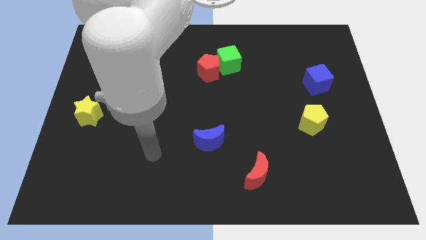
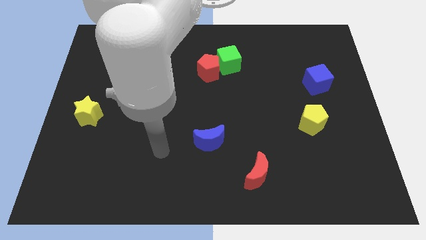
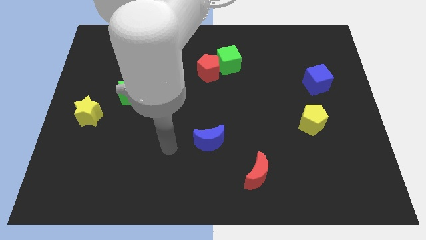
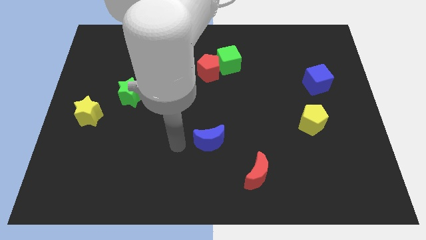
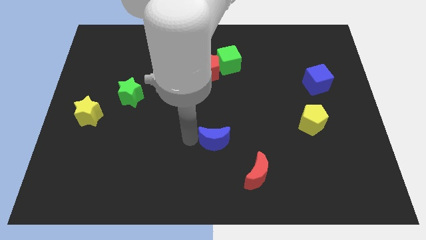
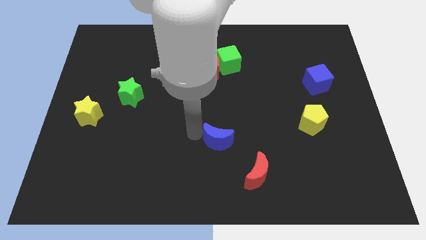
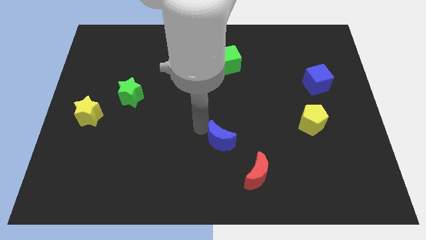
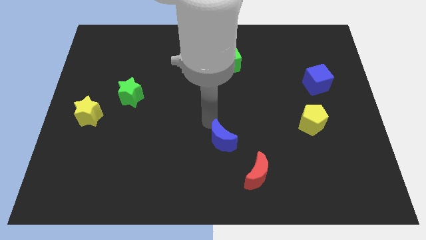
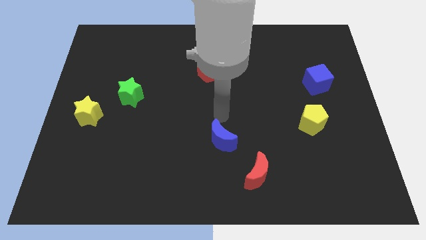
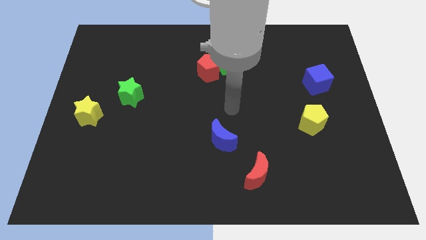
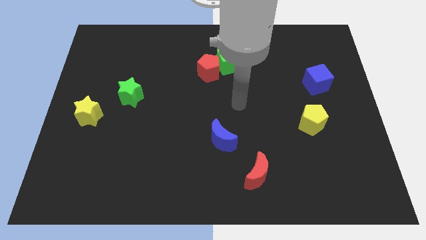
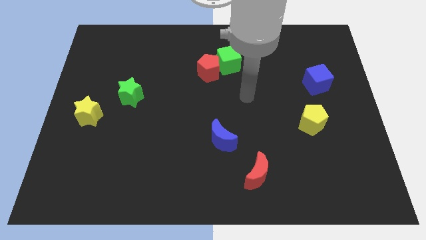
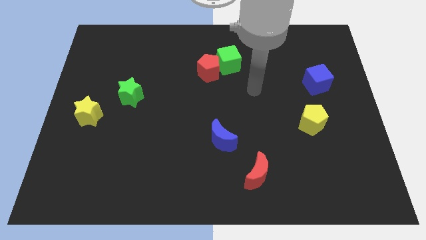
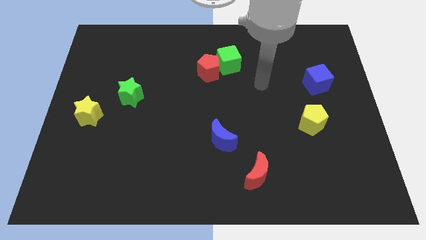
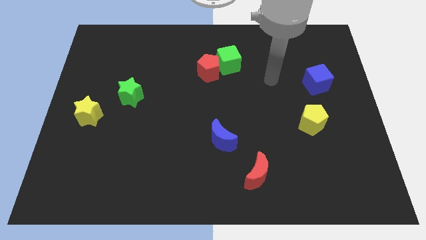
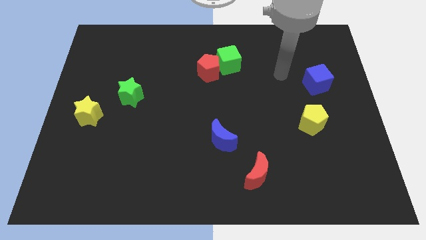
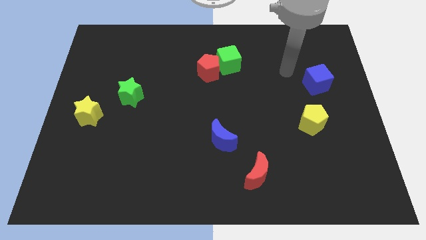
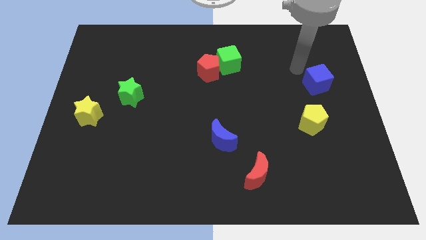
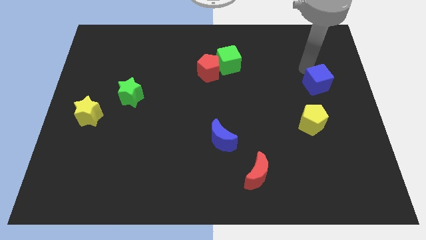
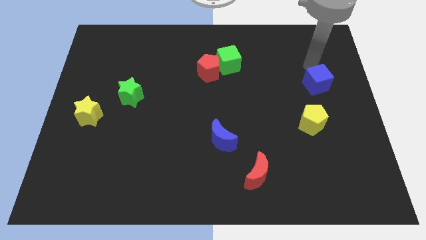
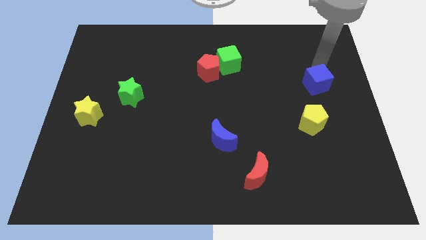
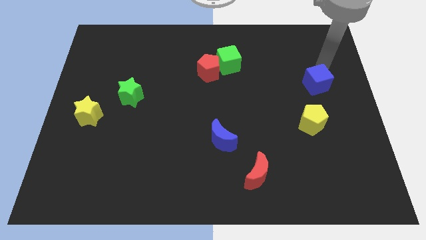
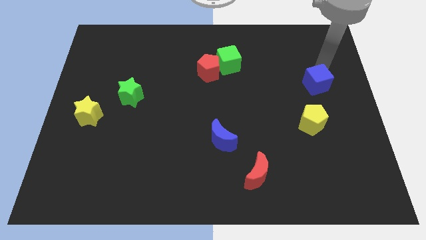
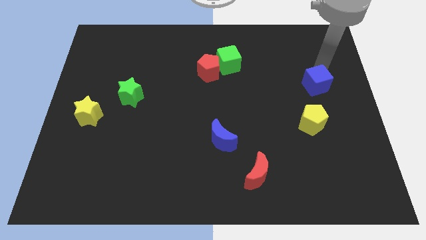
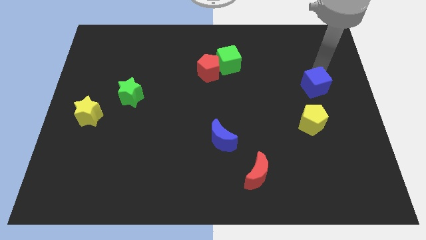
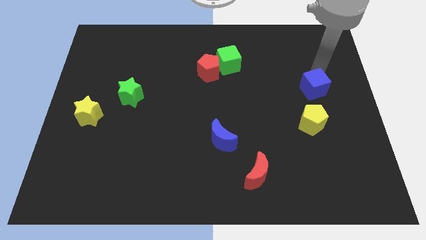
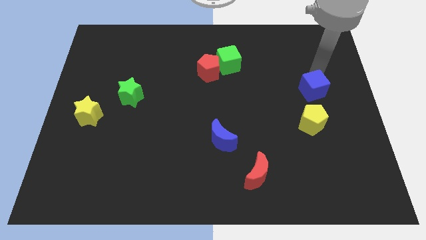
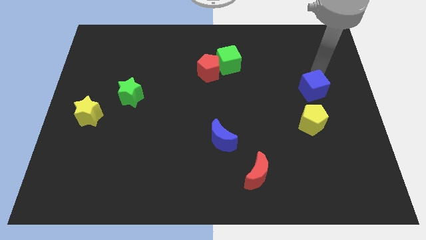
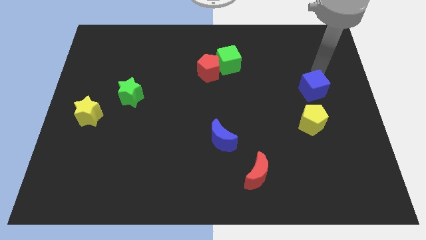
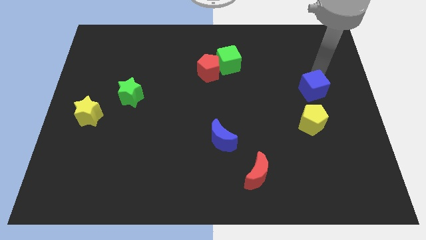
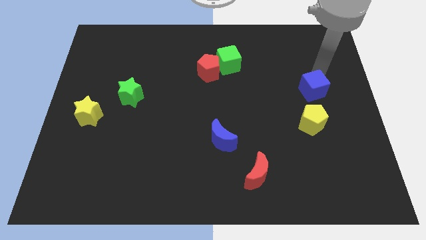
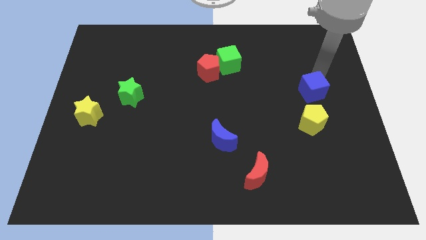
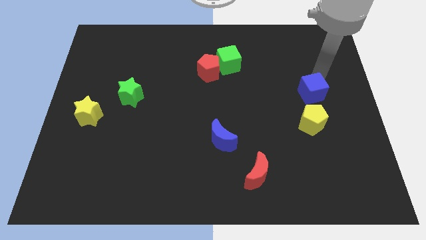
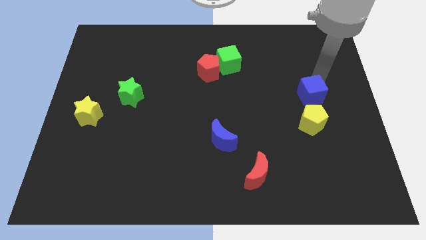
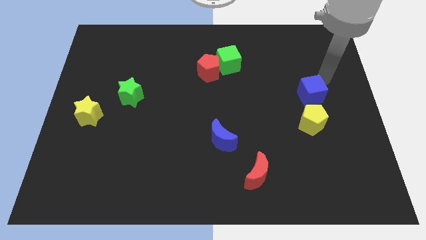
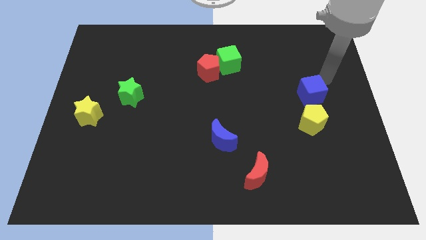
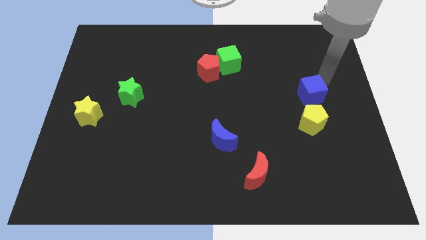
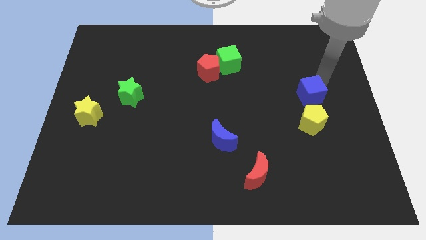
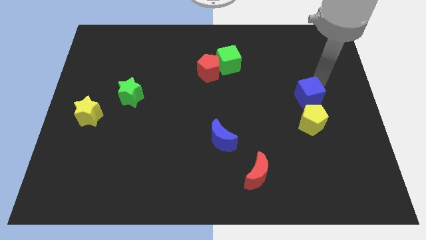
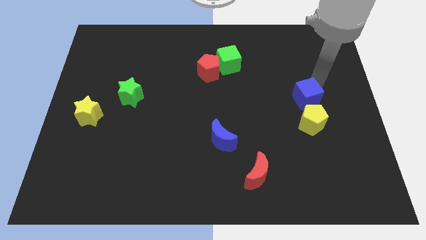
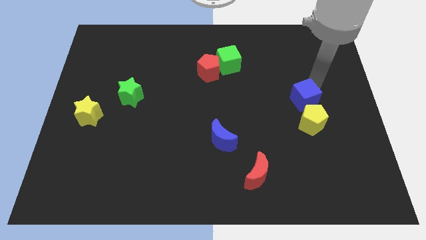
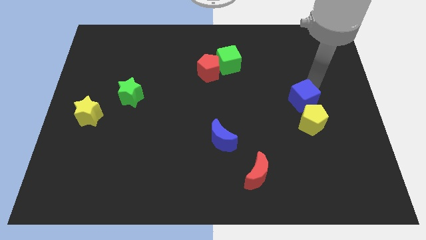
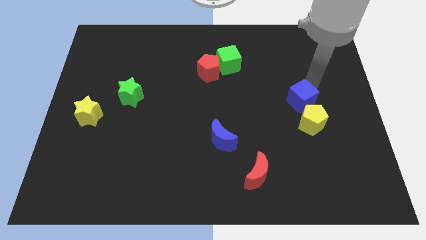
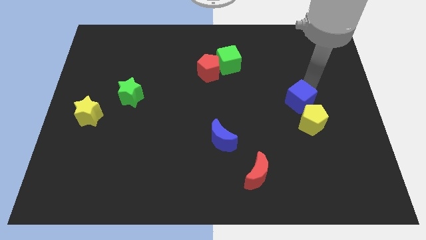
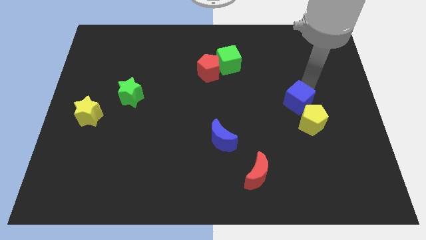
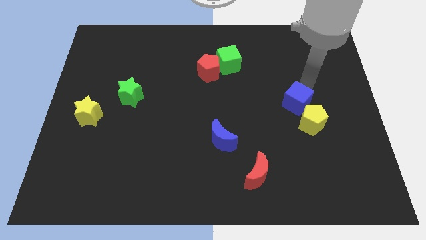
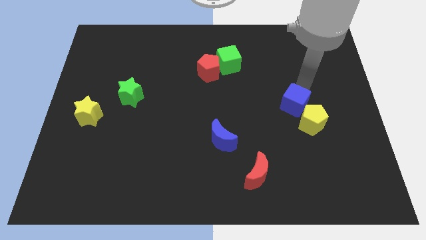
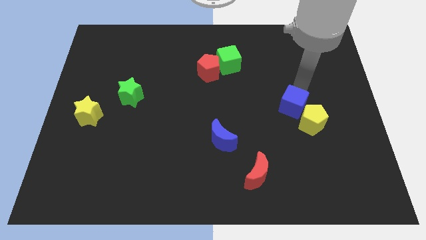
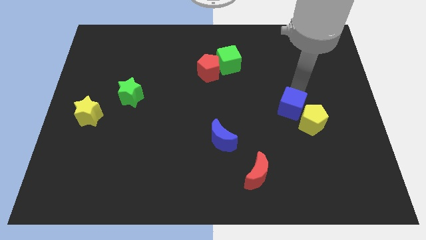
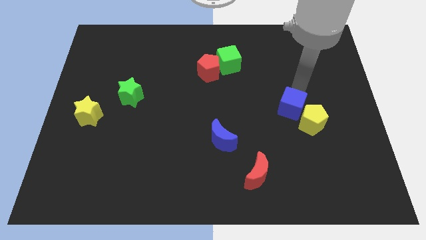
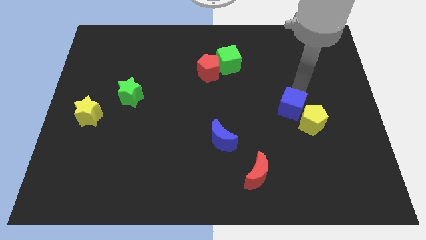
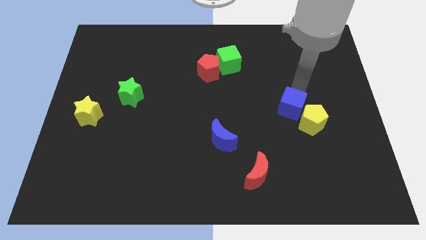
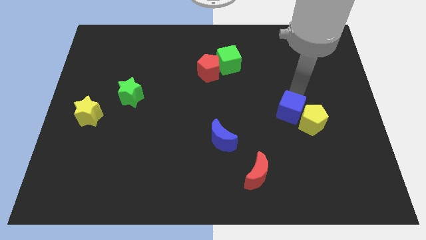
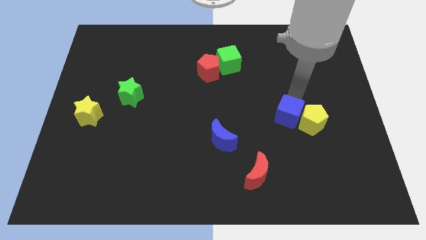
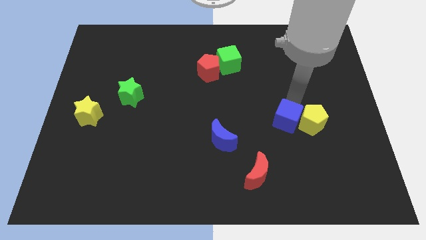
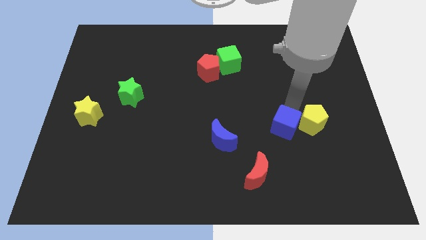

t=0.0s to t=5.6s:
slide the blue cube right of the blue moon
